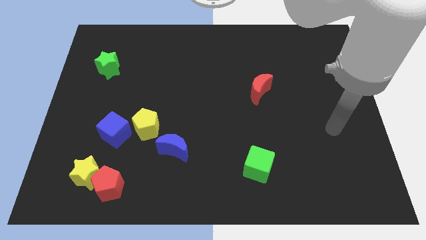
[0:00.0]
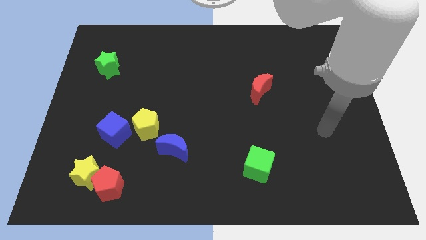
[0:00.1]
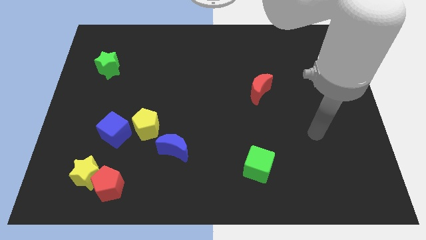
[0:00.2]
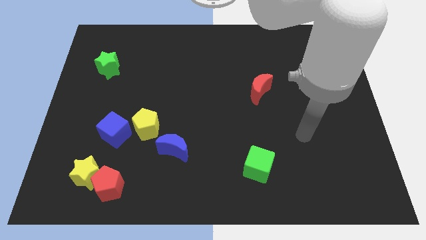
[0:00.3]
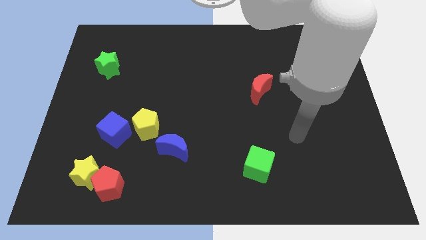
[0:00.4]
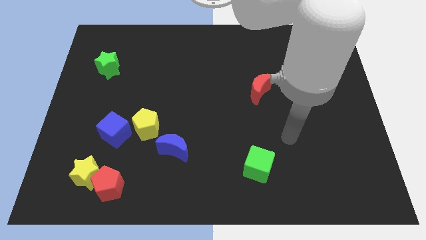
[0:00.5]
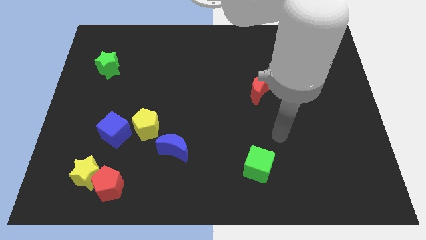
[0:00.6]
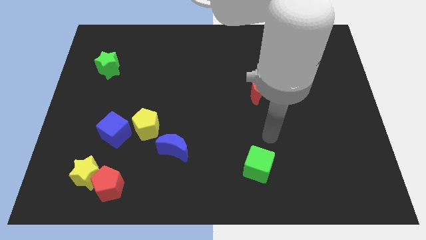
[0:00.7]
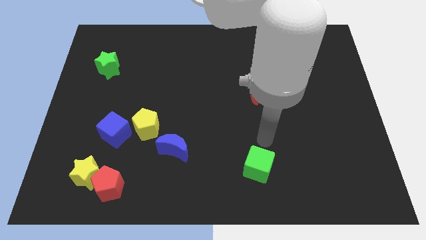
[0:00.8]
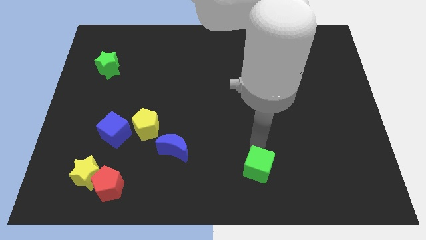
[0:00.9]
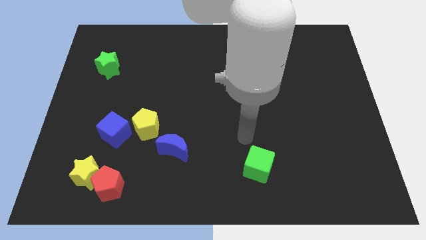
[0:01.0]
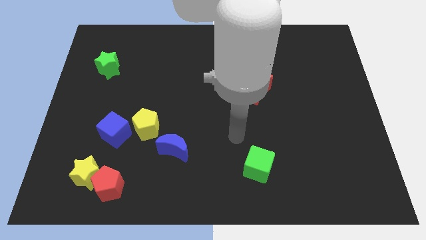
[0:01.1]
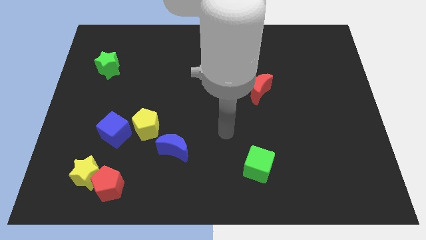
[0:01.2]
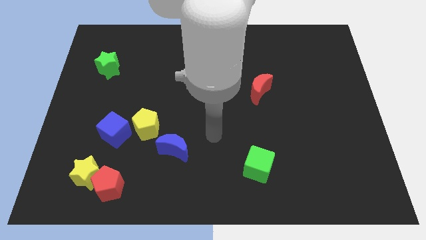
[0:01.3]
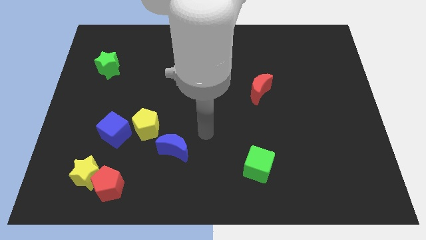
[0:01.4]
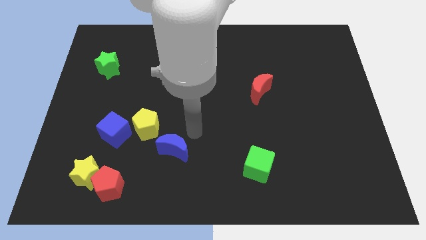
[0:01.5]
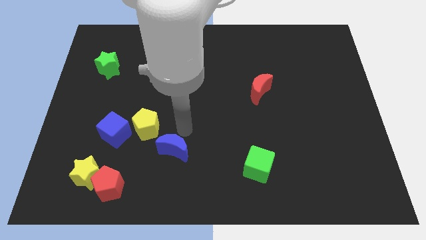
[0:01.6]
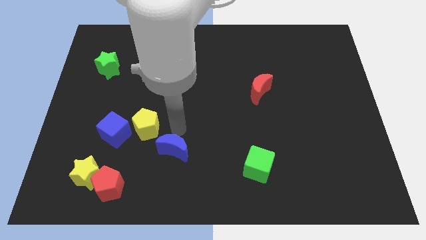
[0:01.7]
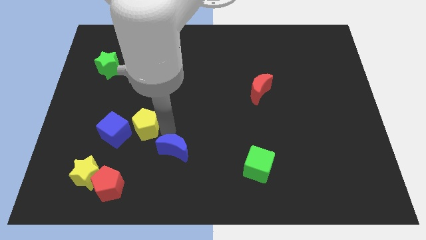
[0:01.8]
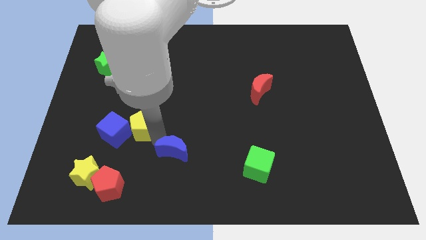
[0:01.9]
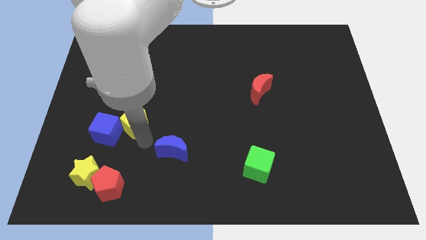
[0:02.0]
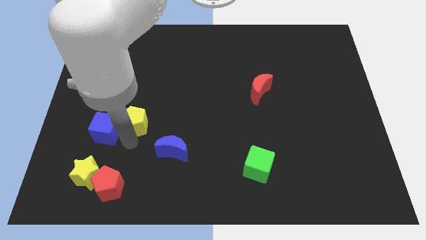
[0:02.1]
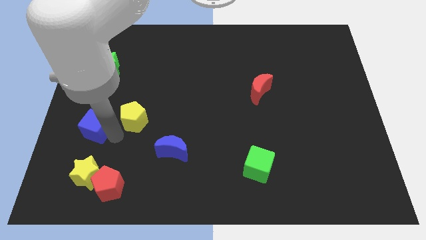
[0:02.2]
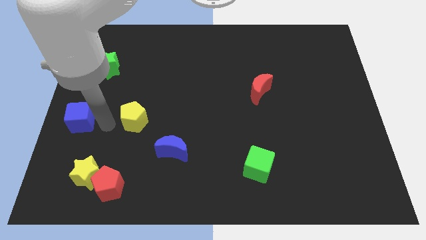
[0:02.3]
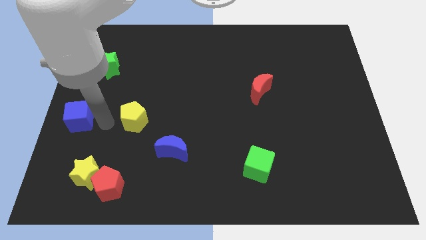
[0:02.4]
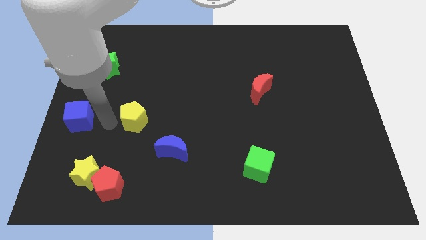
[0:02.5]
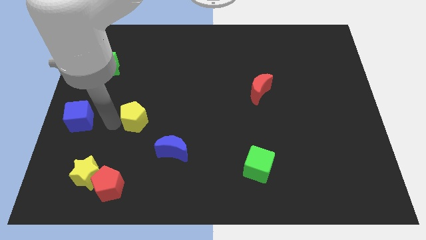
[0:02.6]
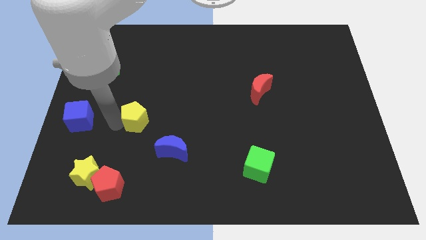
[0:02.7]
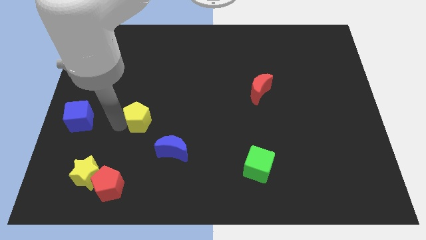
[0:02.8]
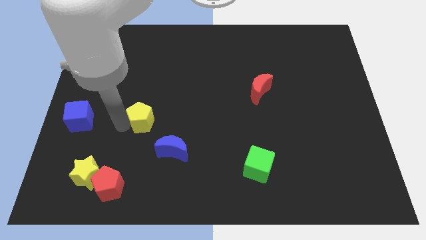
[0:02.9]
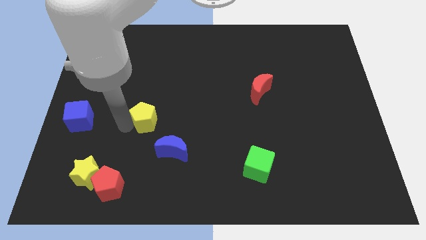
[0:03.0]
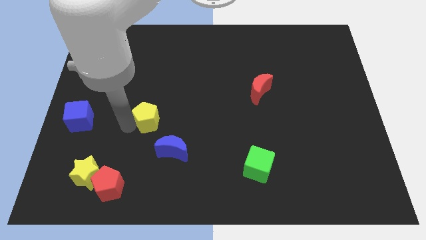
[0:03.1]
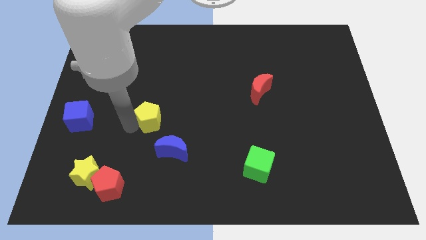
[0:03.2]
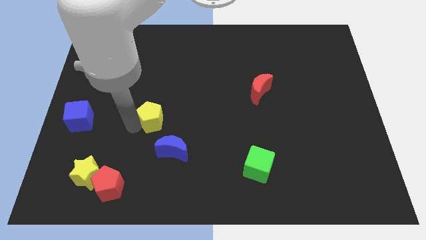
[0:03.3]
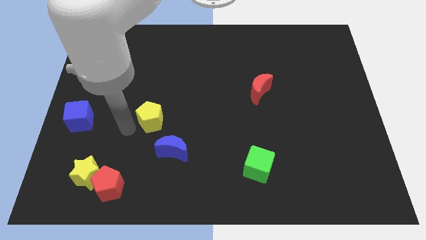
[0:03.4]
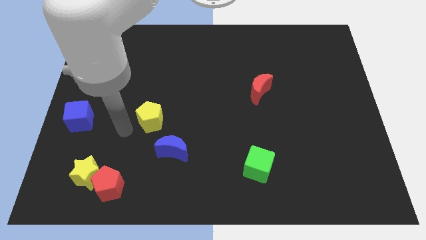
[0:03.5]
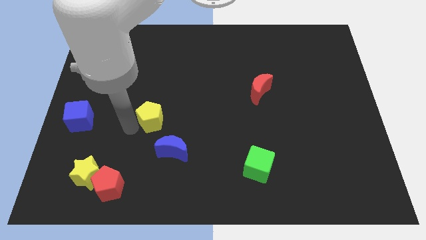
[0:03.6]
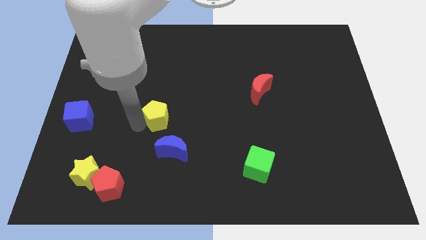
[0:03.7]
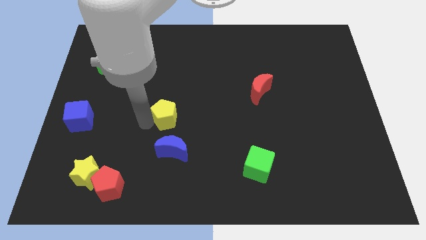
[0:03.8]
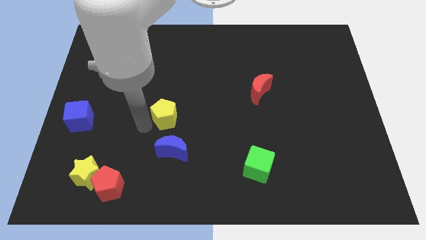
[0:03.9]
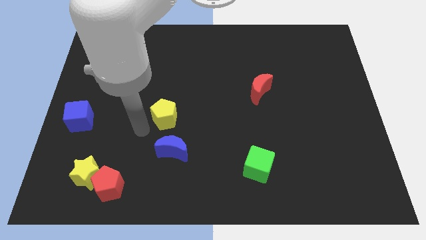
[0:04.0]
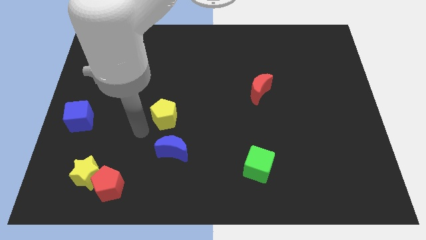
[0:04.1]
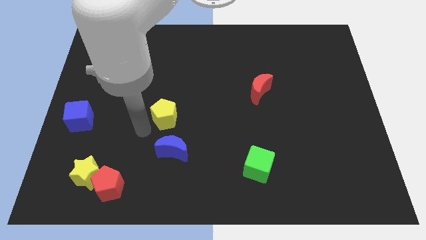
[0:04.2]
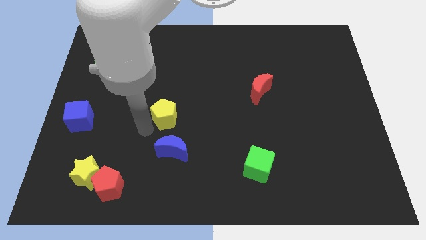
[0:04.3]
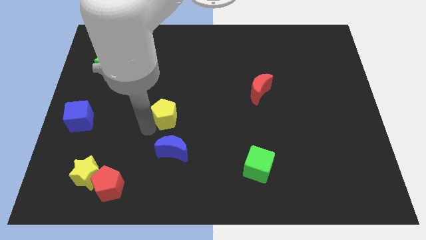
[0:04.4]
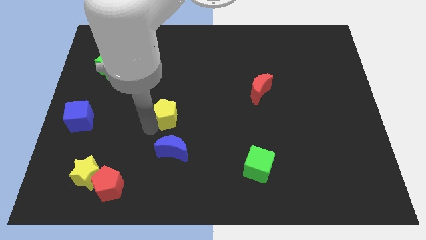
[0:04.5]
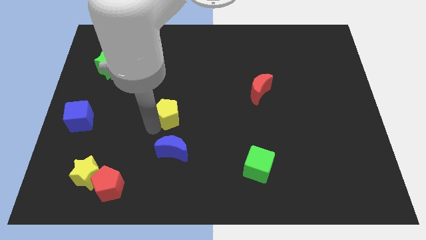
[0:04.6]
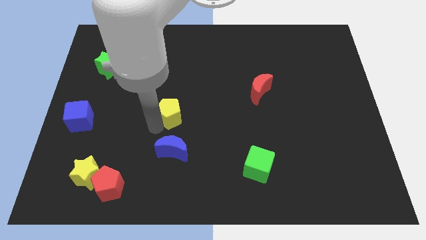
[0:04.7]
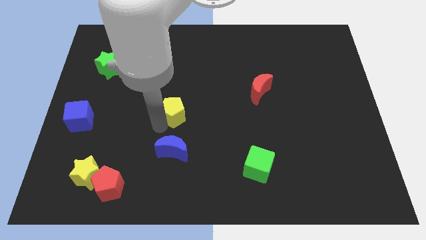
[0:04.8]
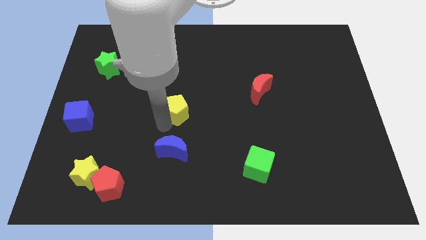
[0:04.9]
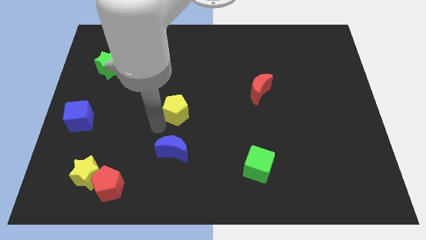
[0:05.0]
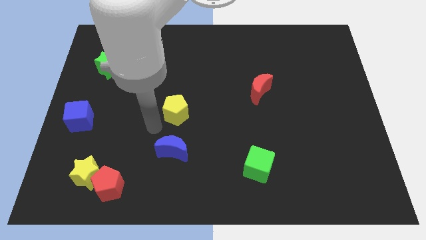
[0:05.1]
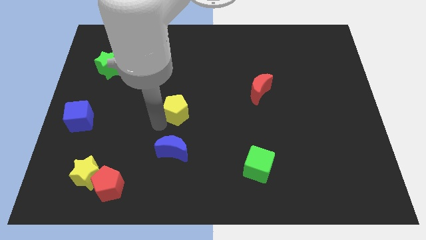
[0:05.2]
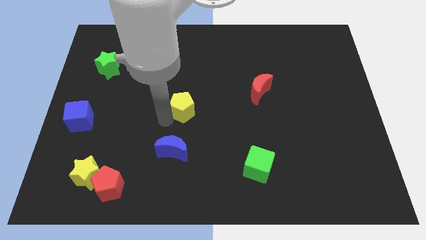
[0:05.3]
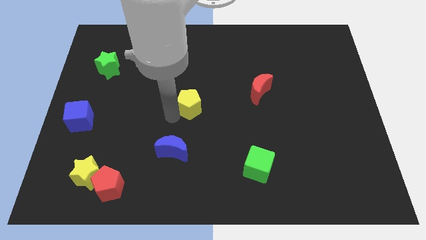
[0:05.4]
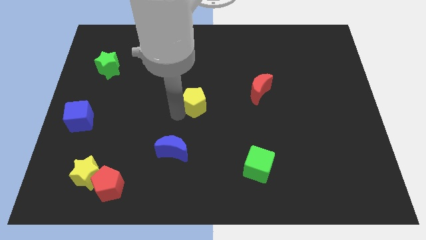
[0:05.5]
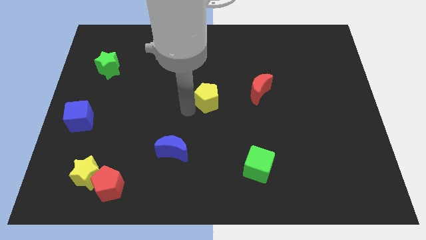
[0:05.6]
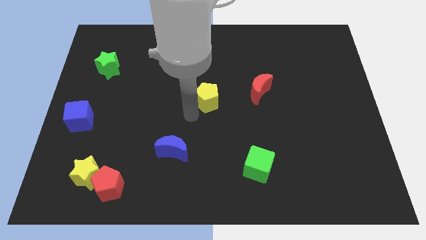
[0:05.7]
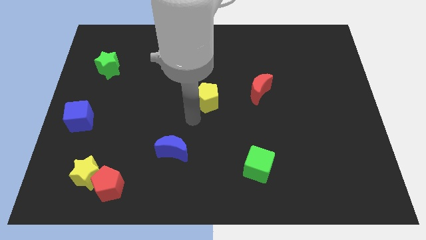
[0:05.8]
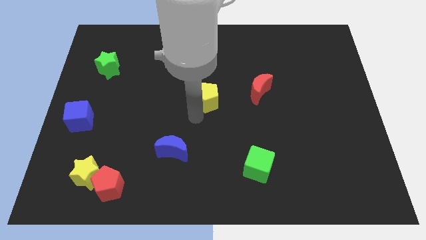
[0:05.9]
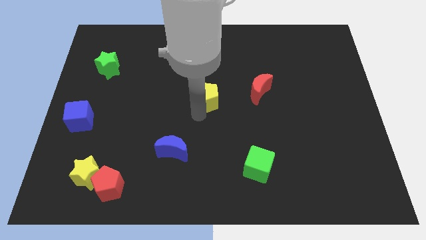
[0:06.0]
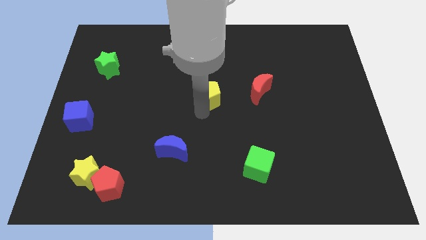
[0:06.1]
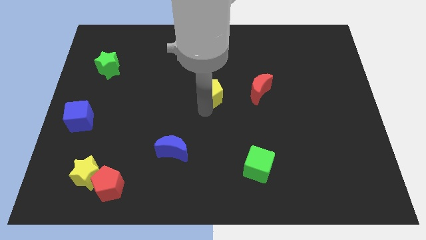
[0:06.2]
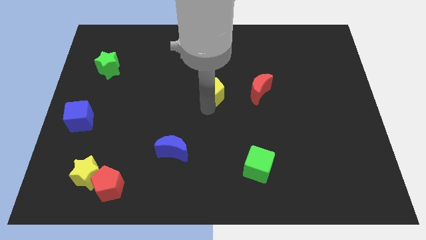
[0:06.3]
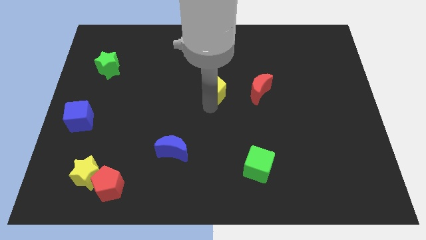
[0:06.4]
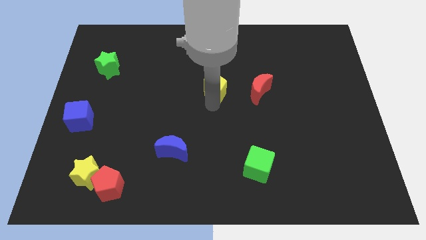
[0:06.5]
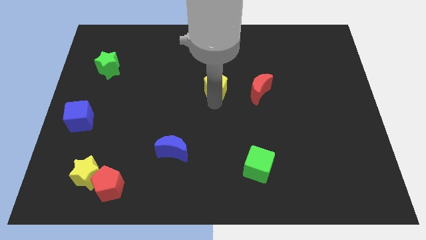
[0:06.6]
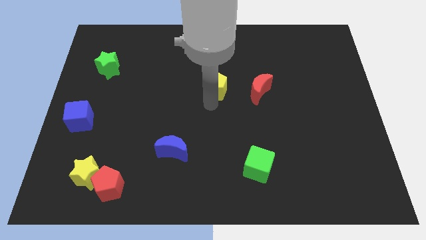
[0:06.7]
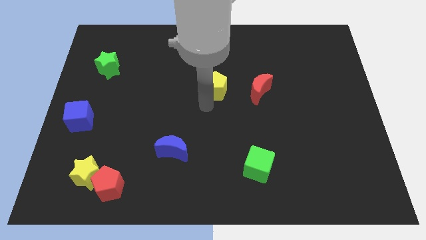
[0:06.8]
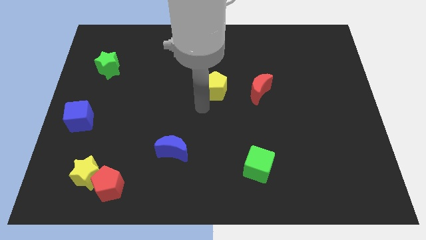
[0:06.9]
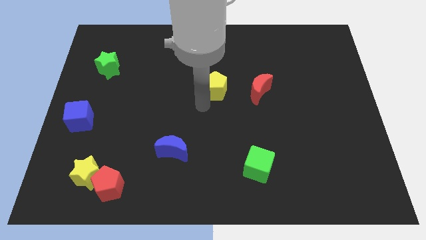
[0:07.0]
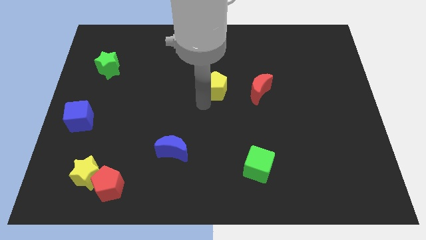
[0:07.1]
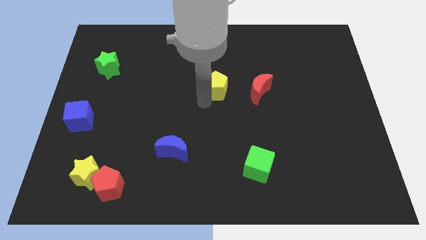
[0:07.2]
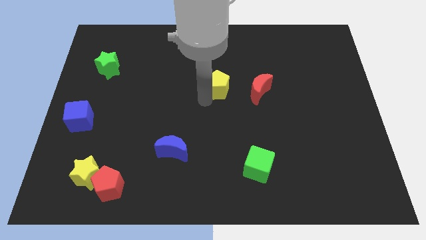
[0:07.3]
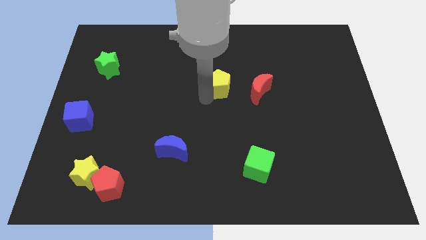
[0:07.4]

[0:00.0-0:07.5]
move the yellow pentagon upwards and to the right

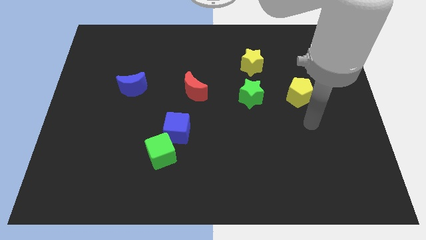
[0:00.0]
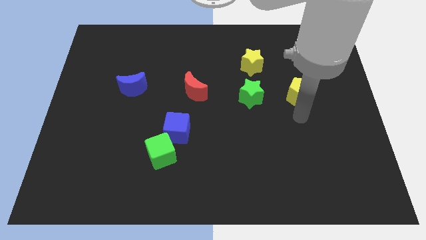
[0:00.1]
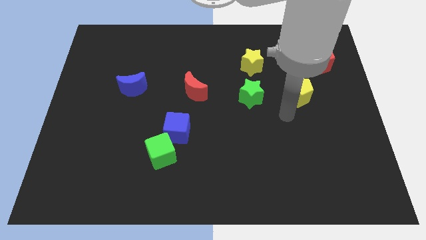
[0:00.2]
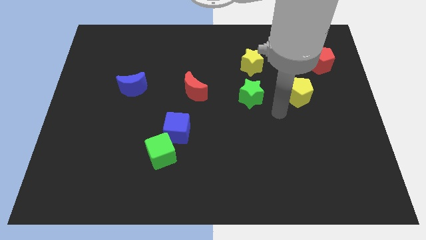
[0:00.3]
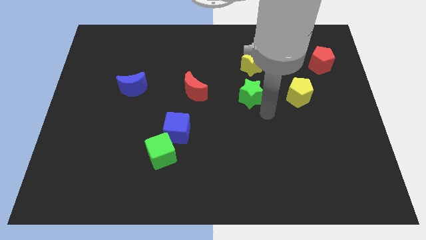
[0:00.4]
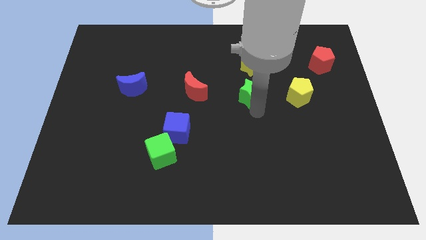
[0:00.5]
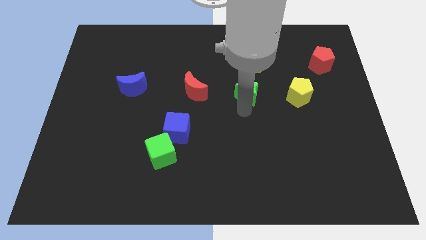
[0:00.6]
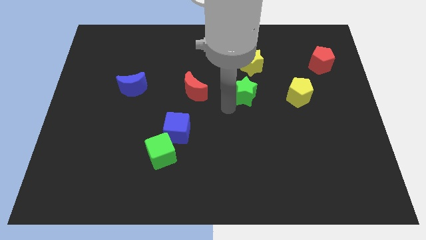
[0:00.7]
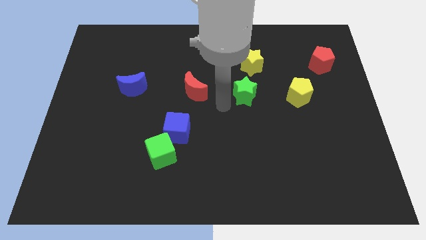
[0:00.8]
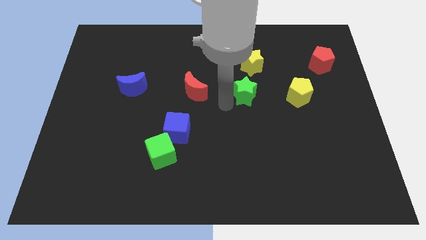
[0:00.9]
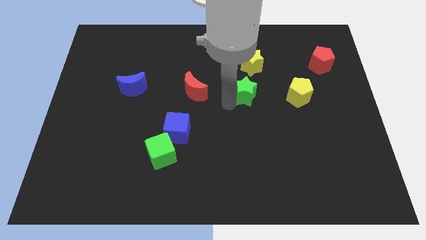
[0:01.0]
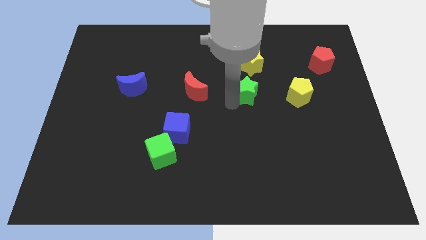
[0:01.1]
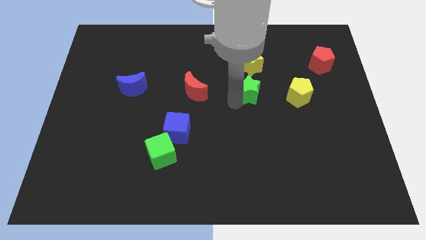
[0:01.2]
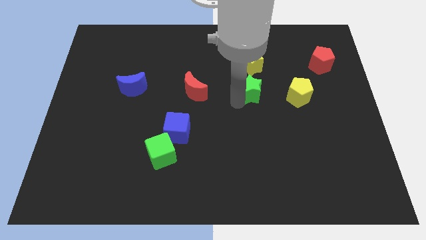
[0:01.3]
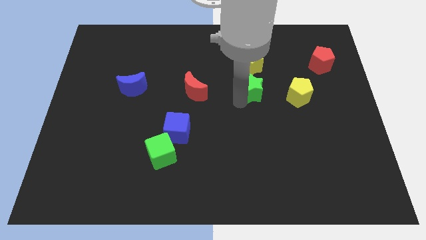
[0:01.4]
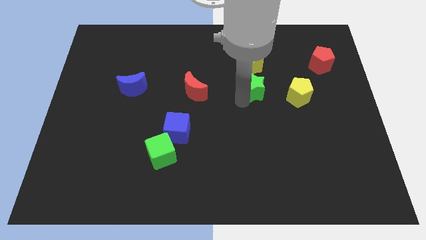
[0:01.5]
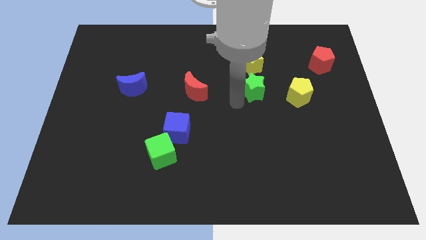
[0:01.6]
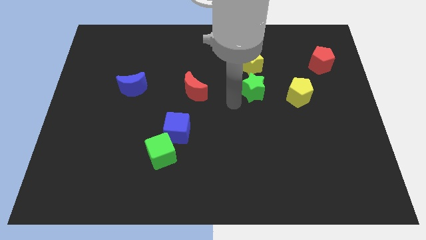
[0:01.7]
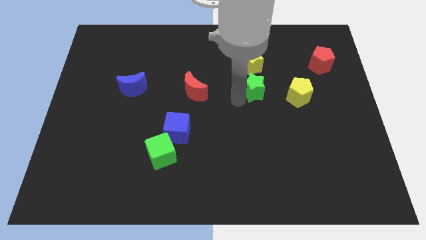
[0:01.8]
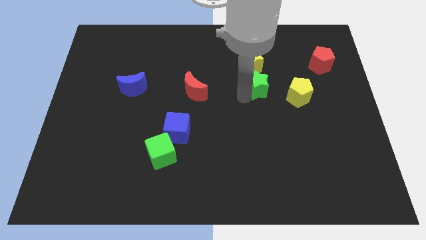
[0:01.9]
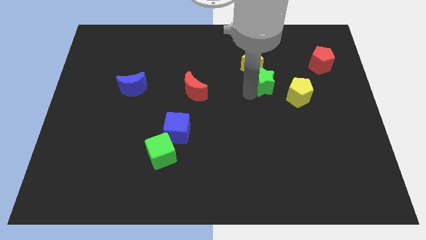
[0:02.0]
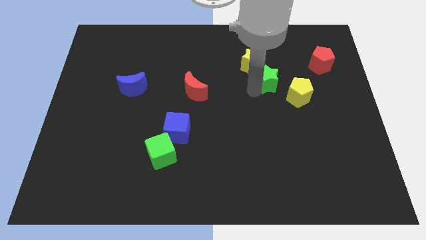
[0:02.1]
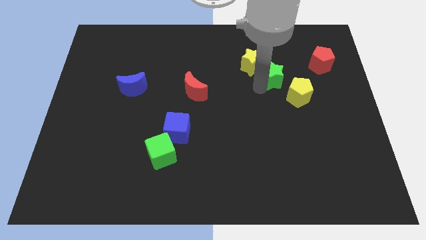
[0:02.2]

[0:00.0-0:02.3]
move the green star somewhat upwards and right
